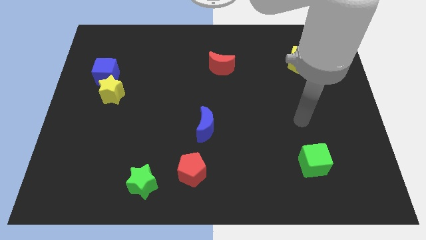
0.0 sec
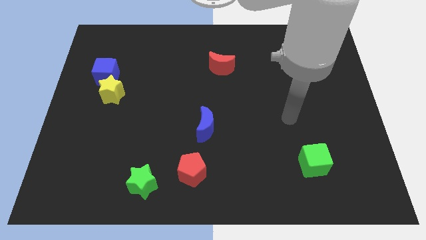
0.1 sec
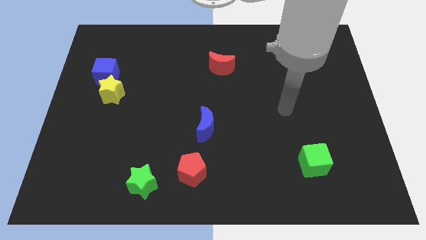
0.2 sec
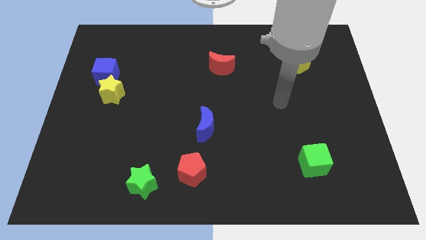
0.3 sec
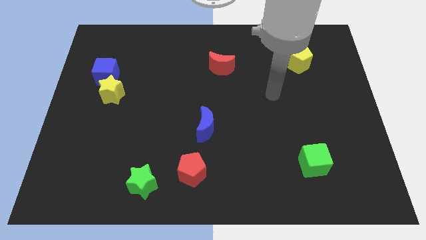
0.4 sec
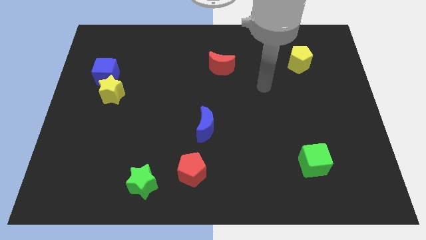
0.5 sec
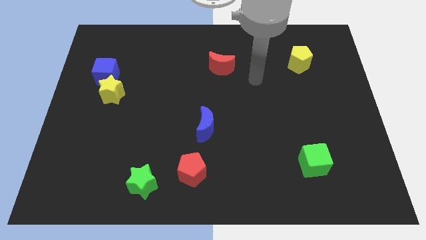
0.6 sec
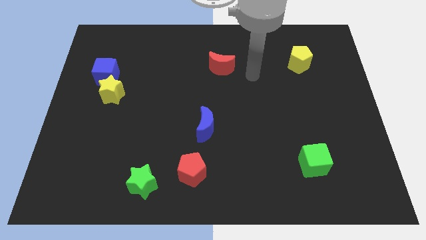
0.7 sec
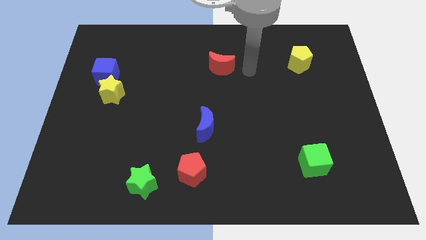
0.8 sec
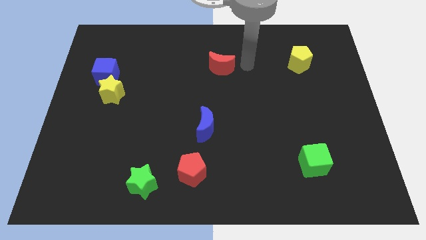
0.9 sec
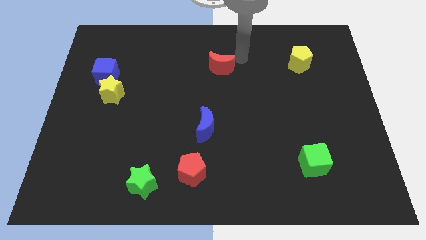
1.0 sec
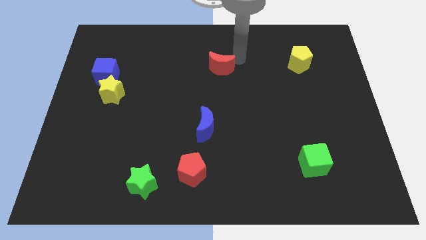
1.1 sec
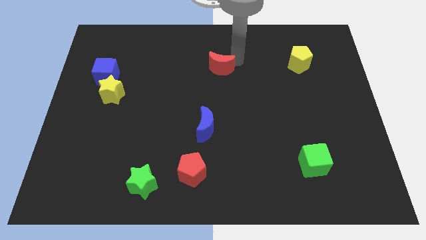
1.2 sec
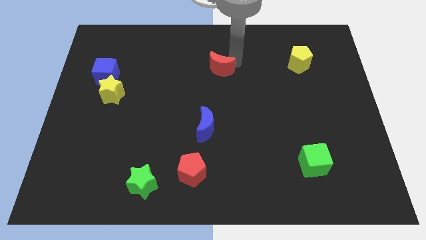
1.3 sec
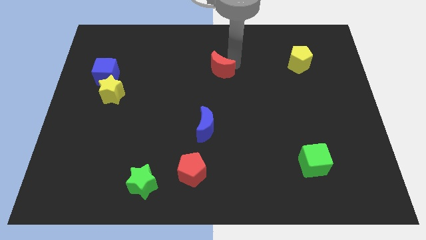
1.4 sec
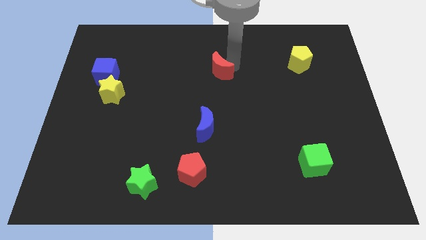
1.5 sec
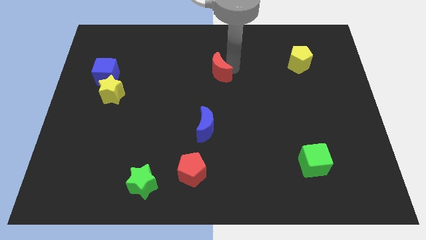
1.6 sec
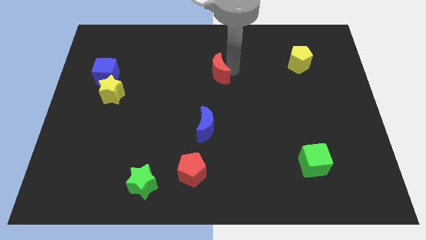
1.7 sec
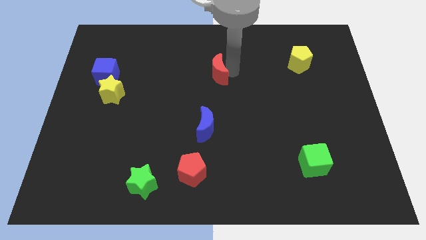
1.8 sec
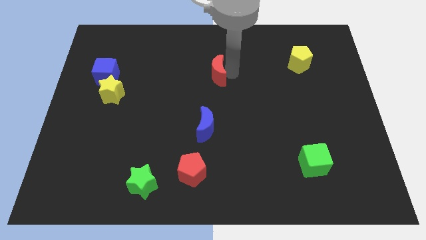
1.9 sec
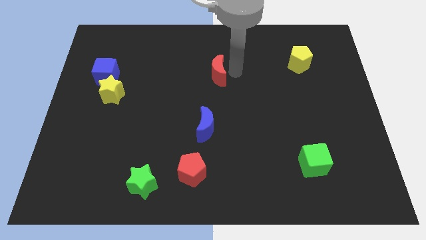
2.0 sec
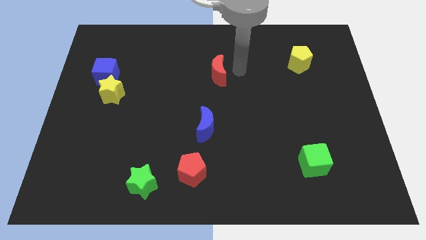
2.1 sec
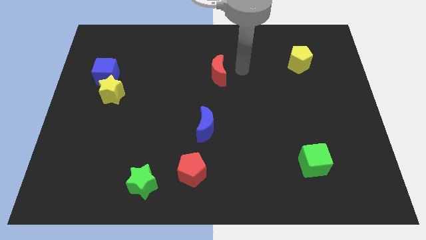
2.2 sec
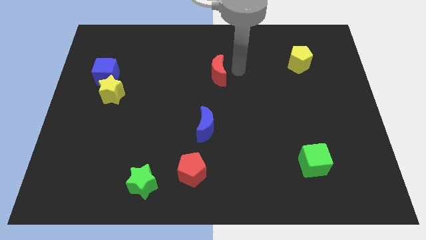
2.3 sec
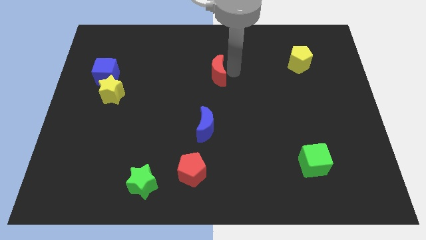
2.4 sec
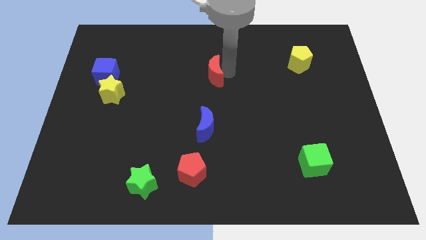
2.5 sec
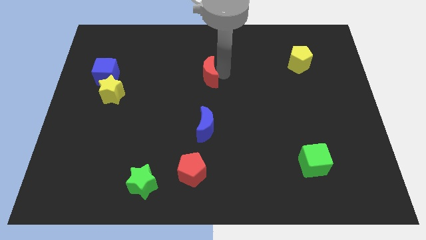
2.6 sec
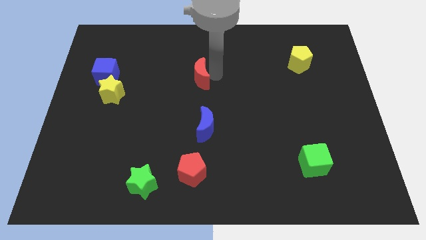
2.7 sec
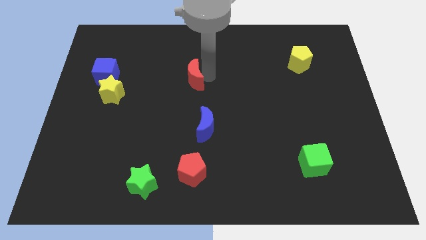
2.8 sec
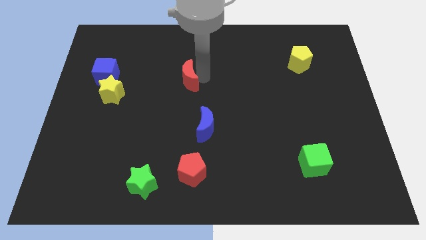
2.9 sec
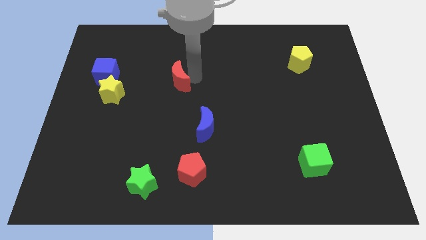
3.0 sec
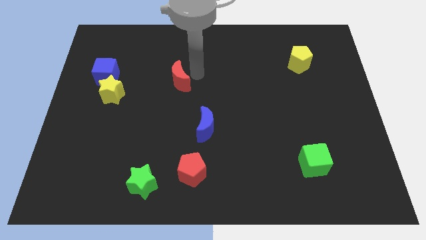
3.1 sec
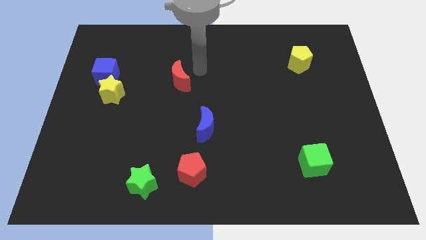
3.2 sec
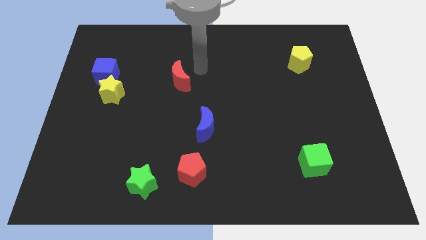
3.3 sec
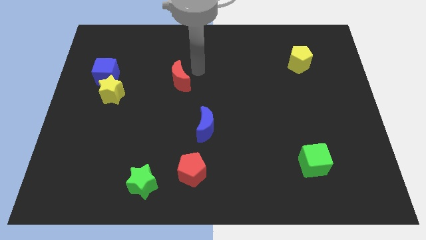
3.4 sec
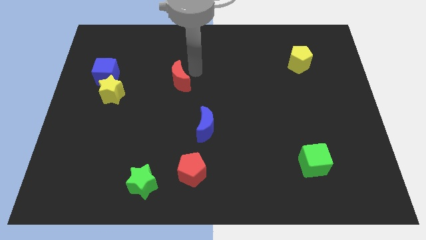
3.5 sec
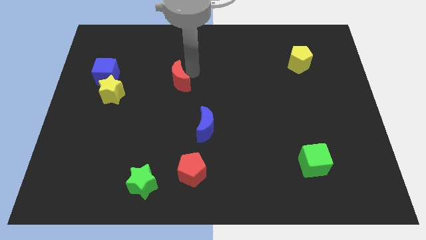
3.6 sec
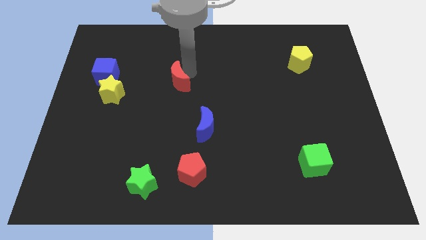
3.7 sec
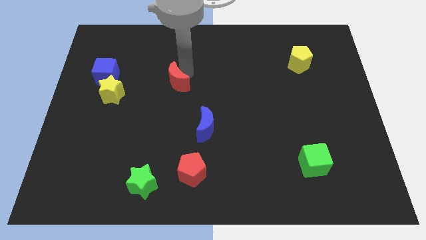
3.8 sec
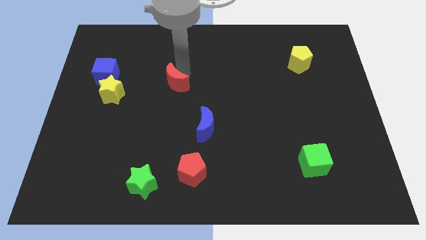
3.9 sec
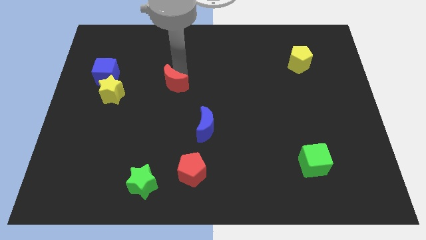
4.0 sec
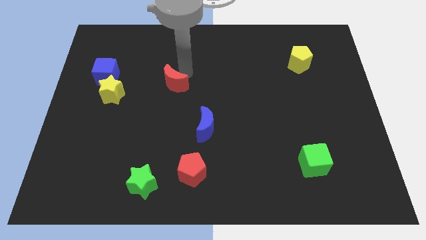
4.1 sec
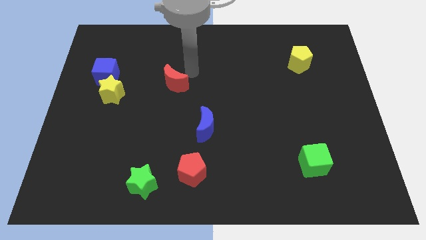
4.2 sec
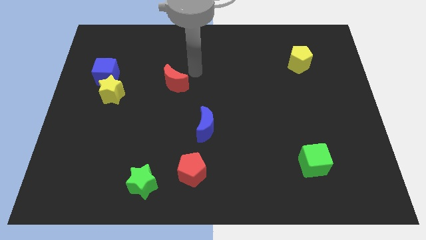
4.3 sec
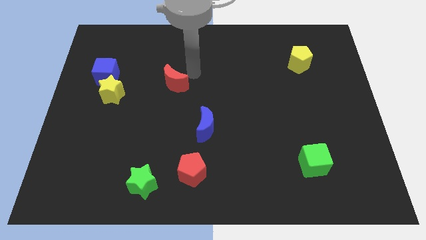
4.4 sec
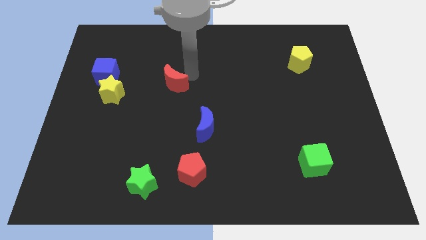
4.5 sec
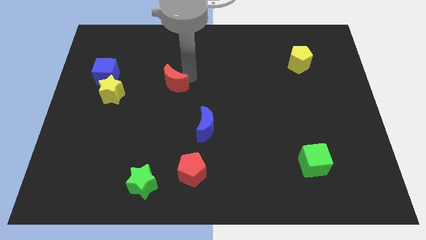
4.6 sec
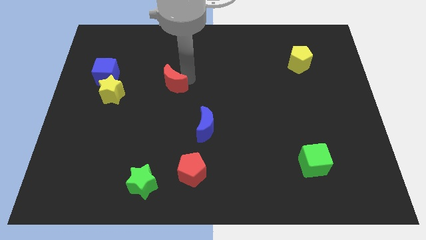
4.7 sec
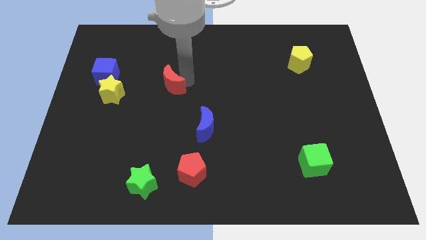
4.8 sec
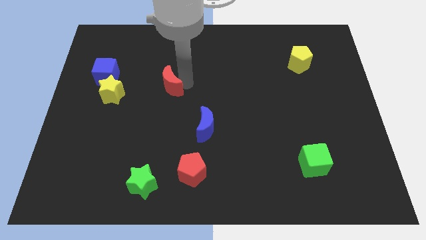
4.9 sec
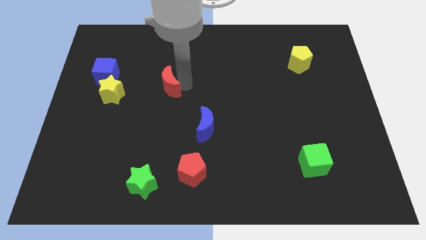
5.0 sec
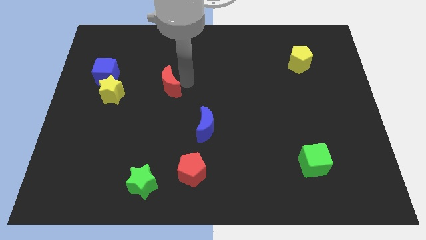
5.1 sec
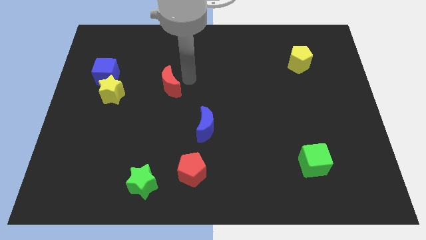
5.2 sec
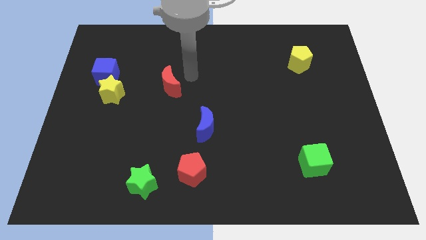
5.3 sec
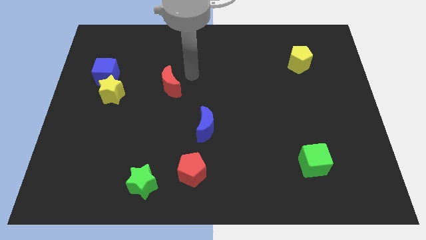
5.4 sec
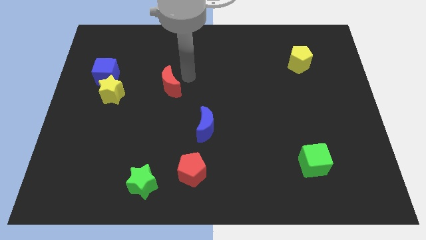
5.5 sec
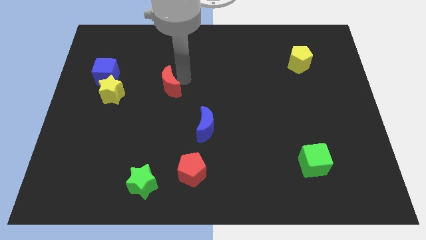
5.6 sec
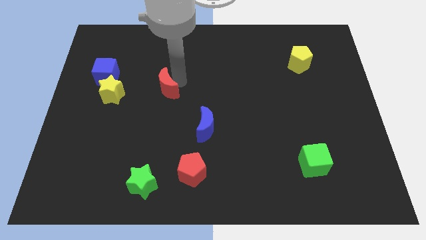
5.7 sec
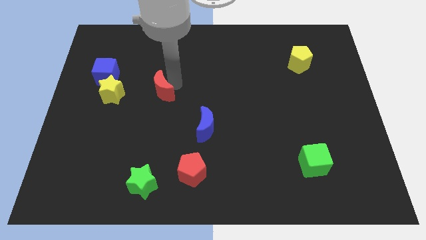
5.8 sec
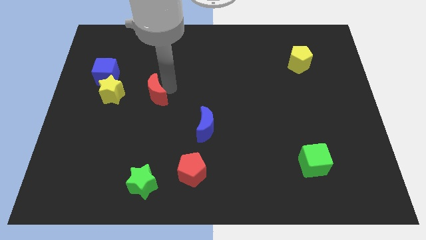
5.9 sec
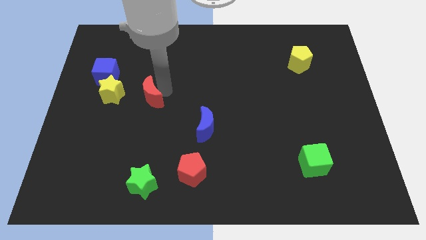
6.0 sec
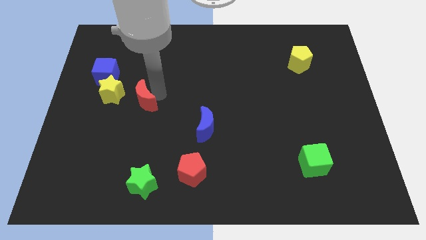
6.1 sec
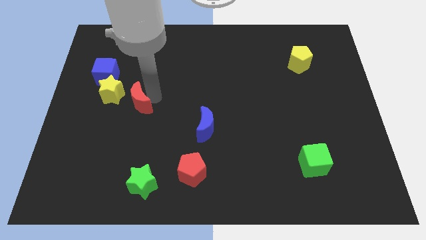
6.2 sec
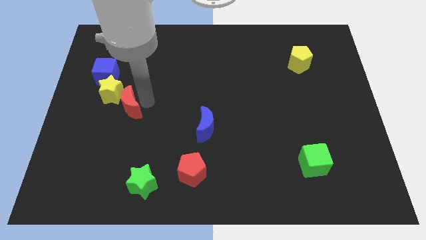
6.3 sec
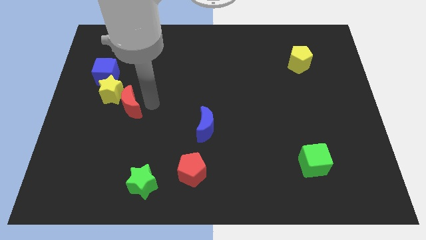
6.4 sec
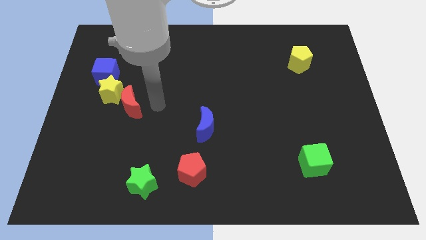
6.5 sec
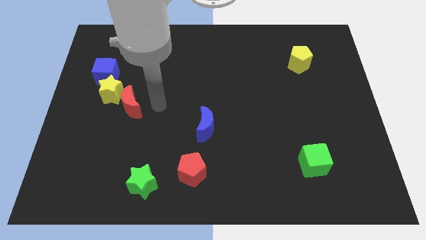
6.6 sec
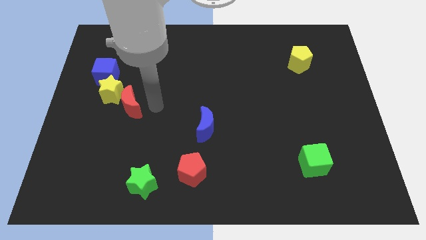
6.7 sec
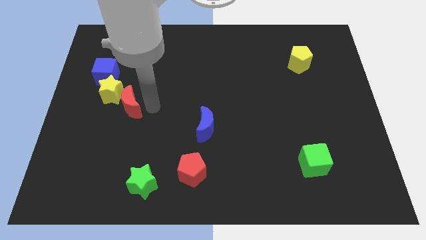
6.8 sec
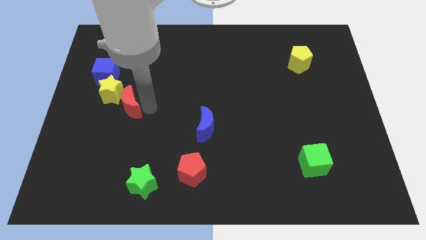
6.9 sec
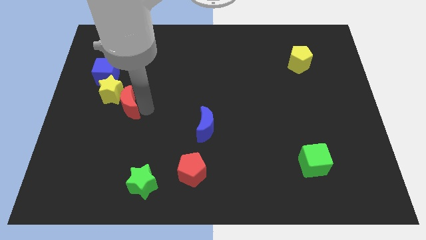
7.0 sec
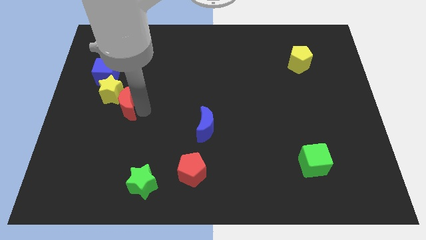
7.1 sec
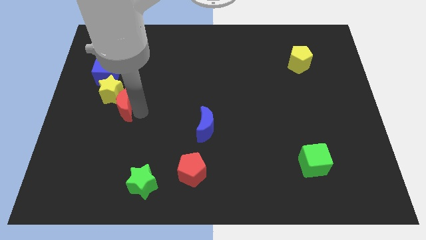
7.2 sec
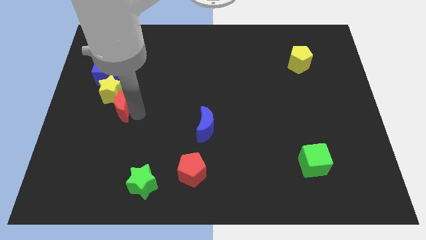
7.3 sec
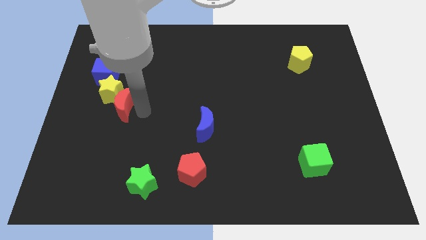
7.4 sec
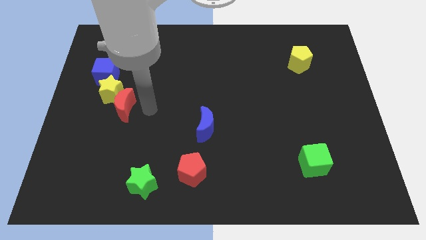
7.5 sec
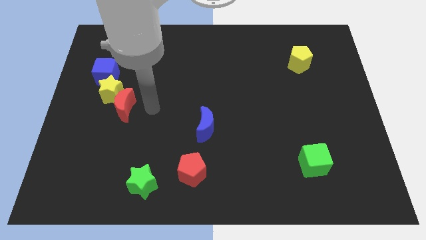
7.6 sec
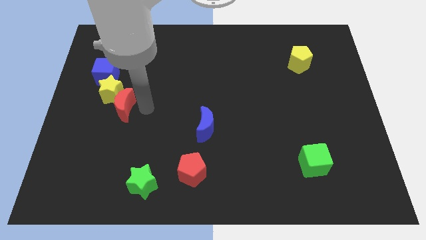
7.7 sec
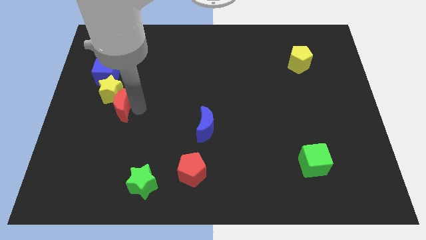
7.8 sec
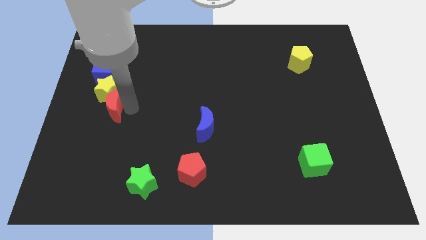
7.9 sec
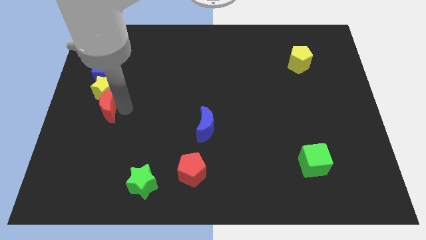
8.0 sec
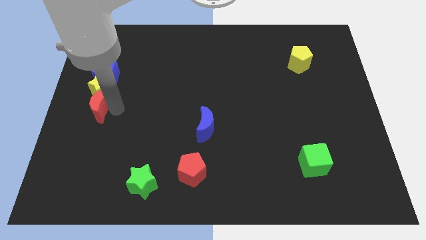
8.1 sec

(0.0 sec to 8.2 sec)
slide the red moon to the left side of the board
